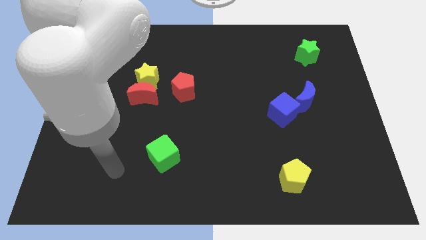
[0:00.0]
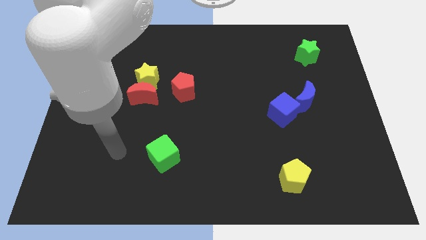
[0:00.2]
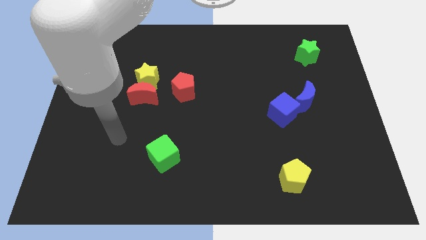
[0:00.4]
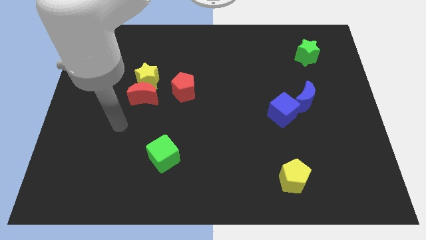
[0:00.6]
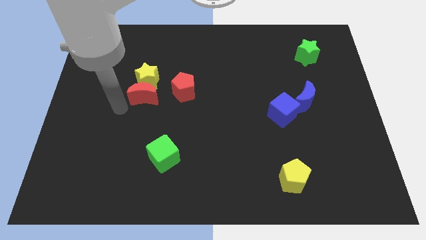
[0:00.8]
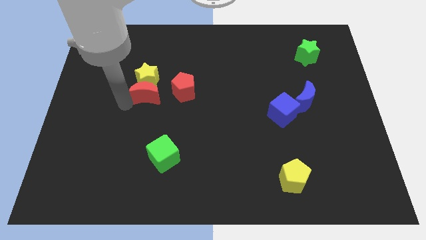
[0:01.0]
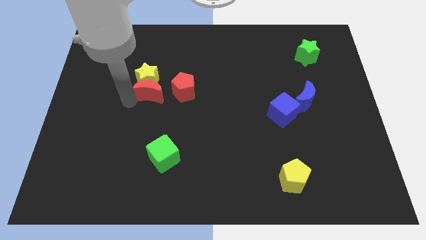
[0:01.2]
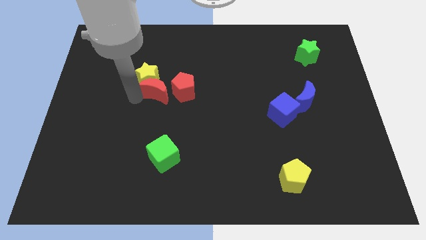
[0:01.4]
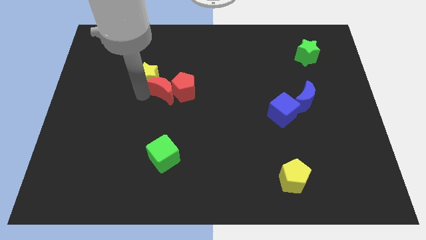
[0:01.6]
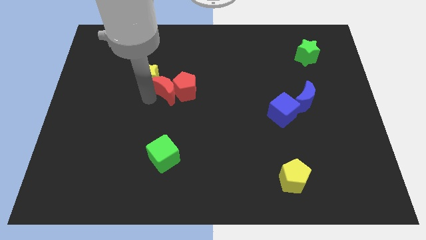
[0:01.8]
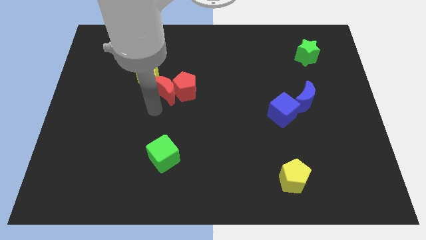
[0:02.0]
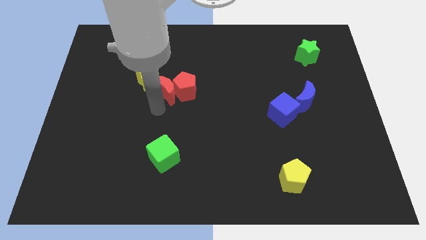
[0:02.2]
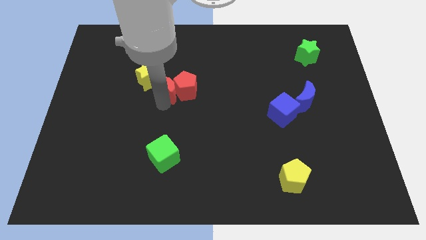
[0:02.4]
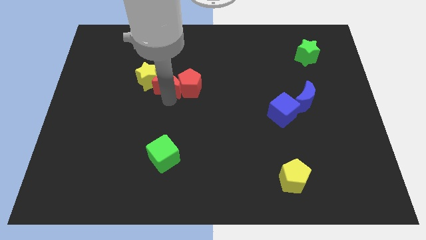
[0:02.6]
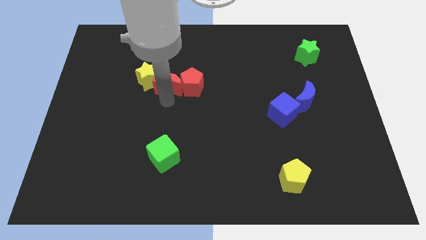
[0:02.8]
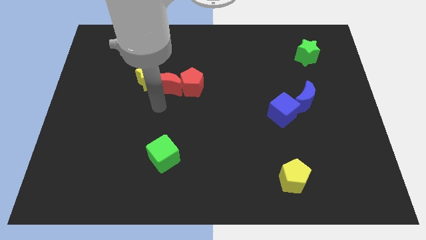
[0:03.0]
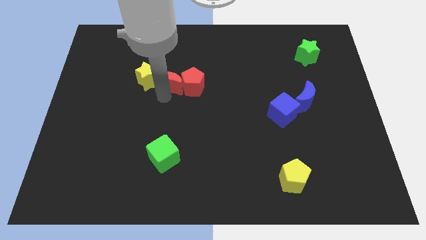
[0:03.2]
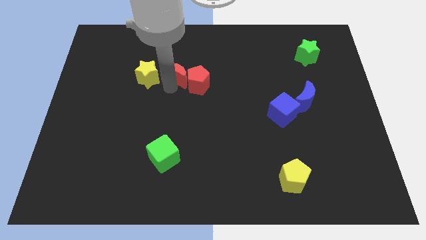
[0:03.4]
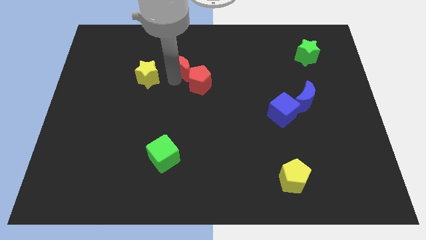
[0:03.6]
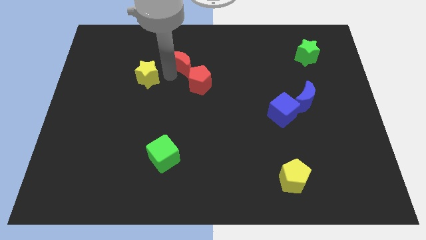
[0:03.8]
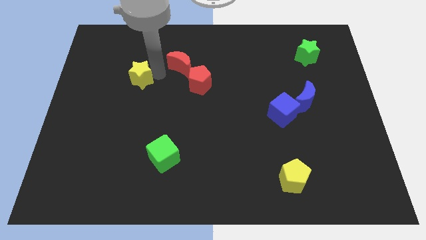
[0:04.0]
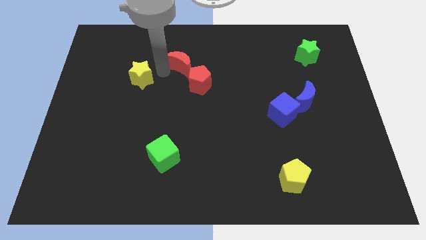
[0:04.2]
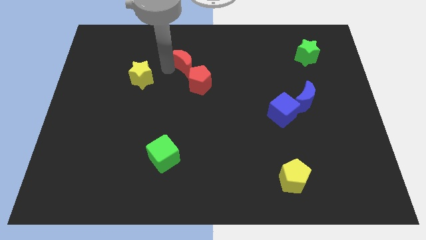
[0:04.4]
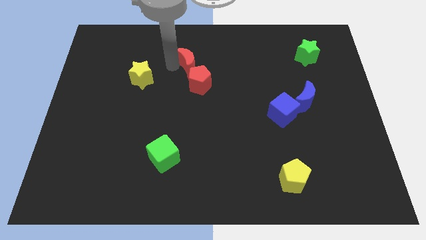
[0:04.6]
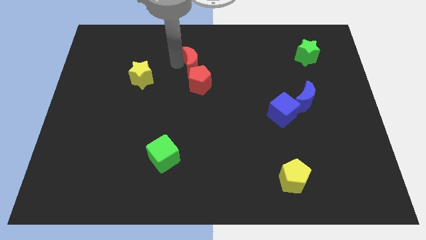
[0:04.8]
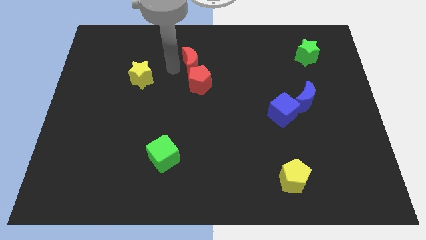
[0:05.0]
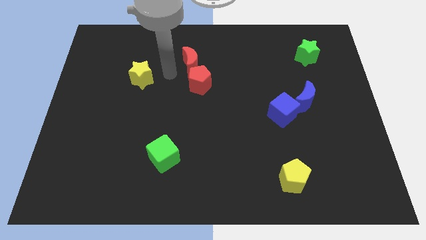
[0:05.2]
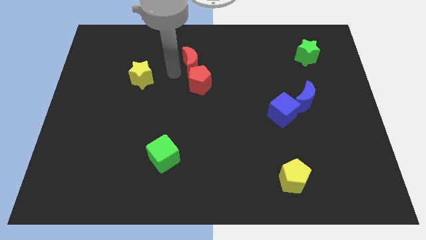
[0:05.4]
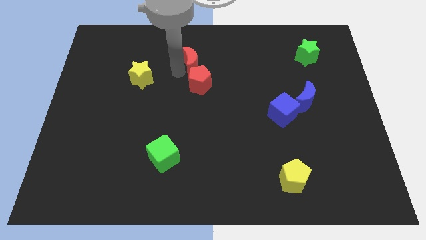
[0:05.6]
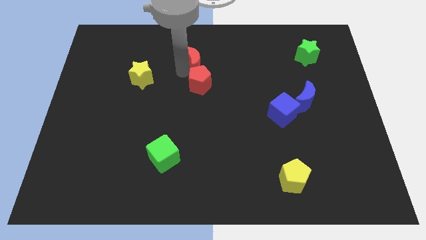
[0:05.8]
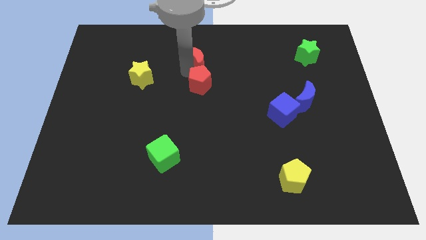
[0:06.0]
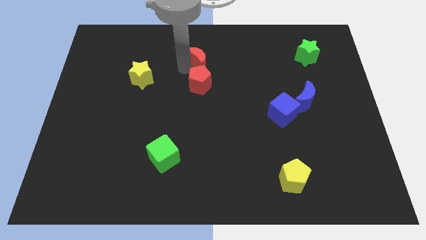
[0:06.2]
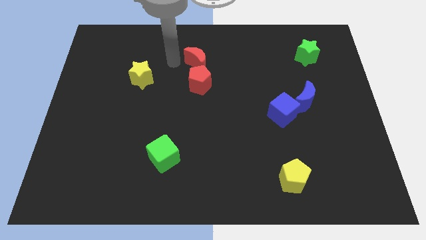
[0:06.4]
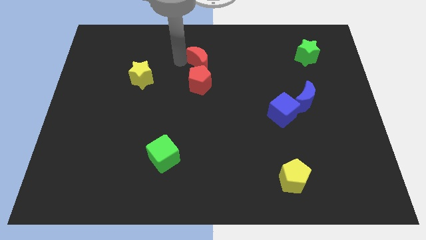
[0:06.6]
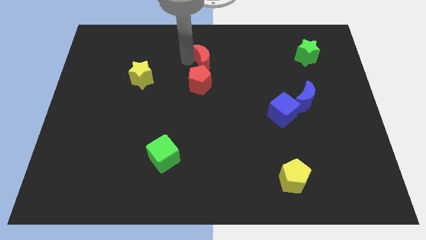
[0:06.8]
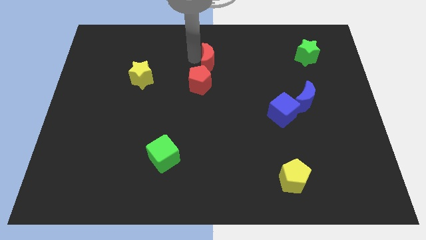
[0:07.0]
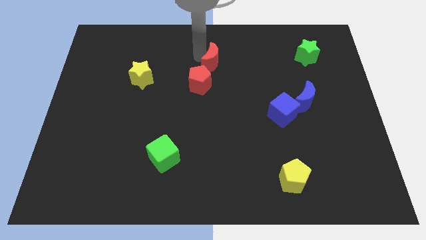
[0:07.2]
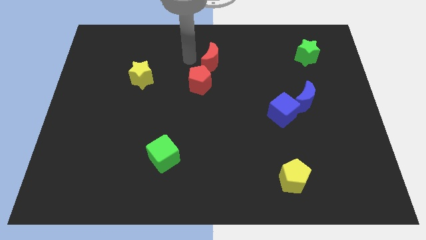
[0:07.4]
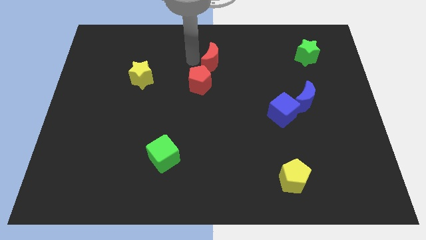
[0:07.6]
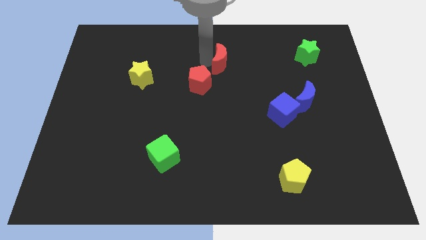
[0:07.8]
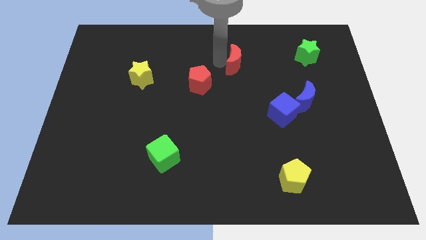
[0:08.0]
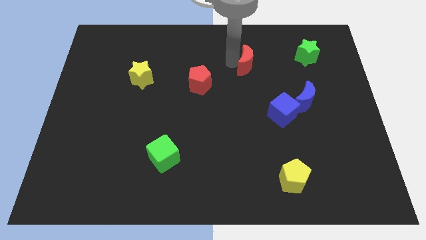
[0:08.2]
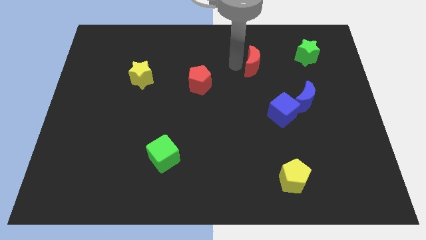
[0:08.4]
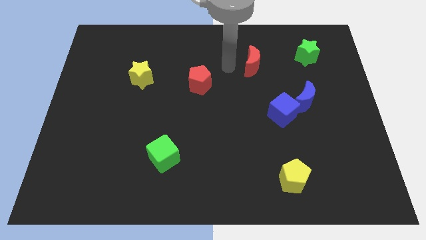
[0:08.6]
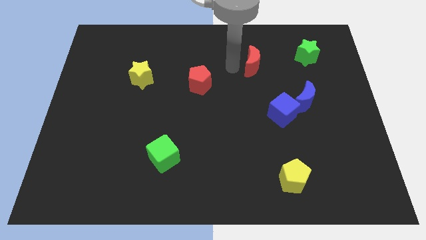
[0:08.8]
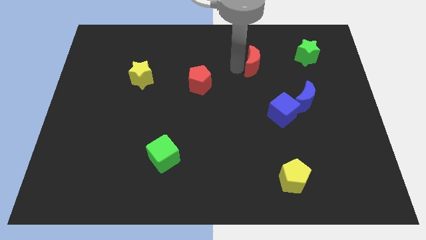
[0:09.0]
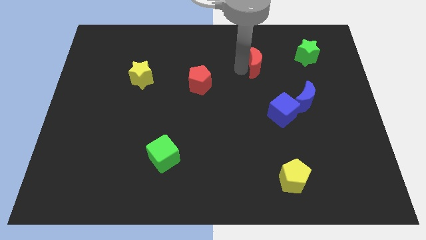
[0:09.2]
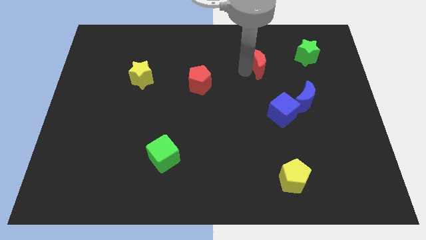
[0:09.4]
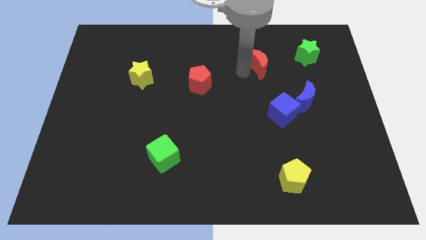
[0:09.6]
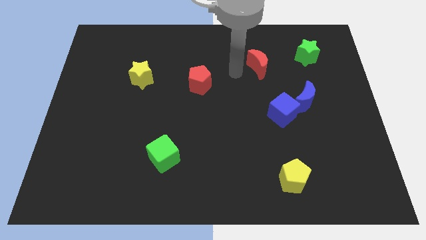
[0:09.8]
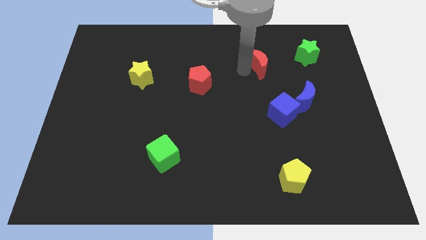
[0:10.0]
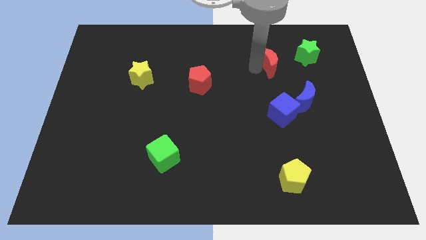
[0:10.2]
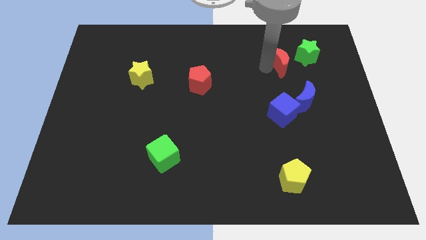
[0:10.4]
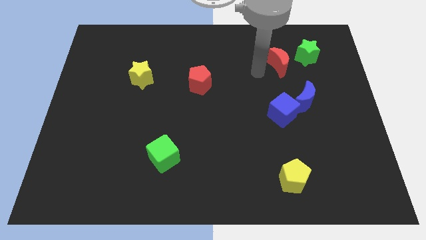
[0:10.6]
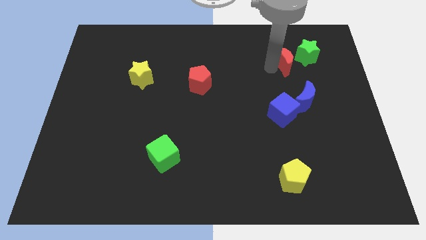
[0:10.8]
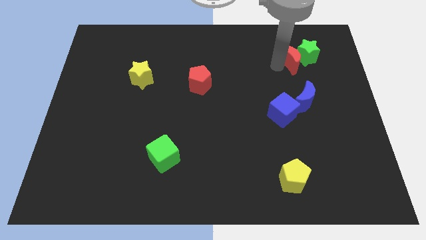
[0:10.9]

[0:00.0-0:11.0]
put the red moon close to the green star

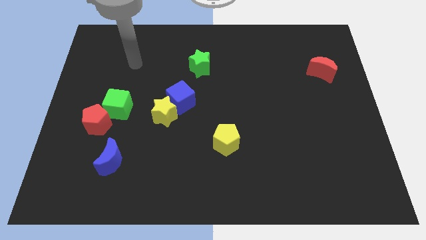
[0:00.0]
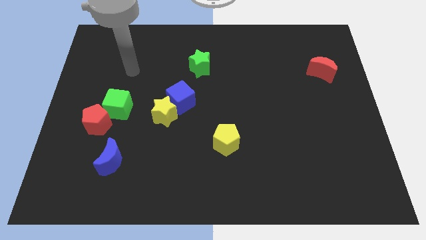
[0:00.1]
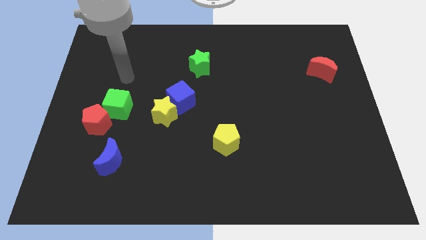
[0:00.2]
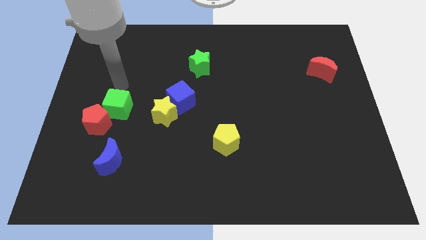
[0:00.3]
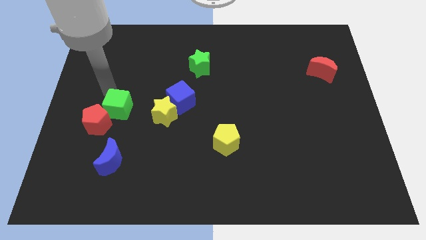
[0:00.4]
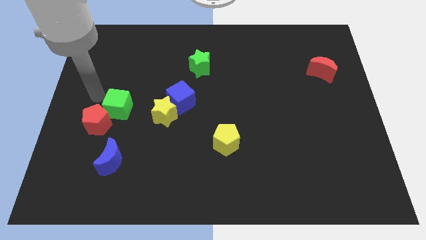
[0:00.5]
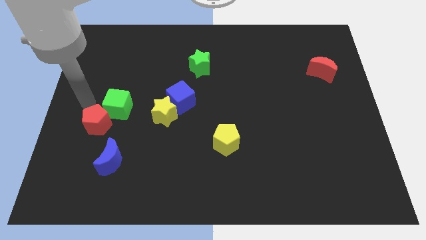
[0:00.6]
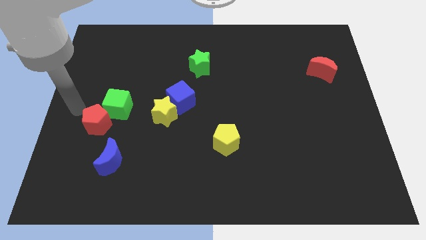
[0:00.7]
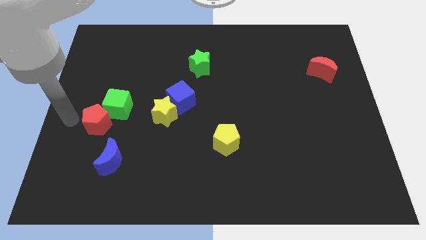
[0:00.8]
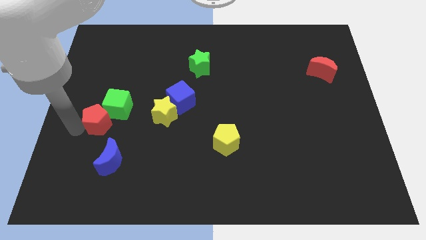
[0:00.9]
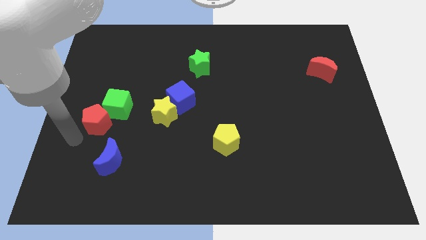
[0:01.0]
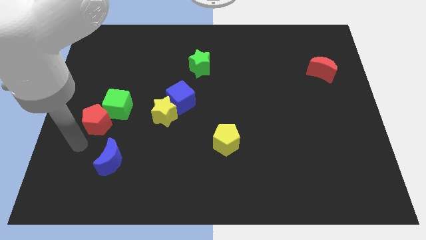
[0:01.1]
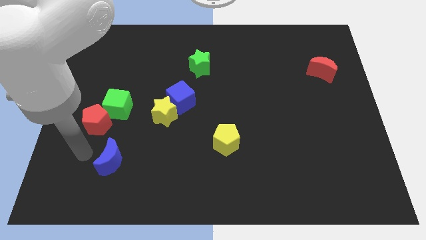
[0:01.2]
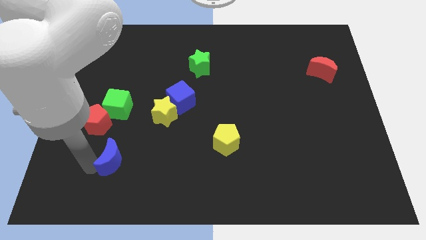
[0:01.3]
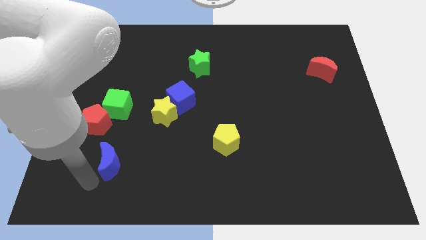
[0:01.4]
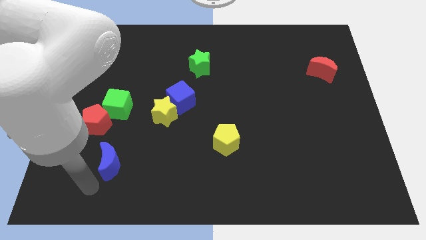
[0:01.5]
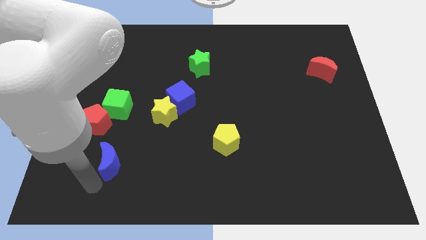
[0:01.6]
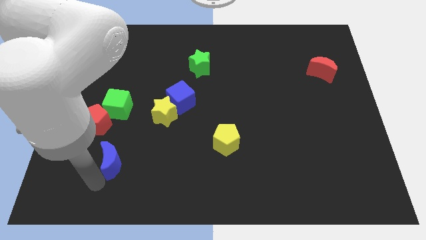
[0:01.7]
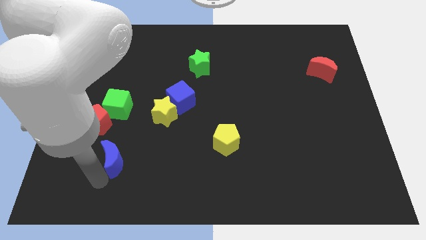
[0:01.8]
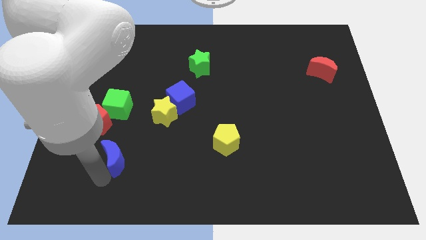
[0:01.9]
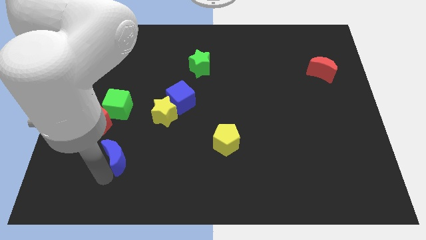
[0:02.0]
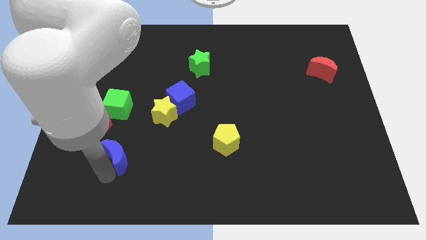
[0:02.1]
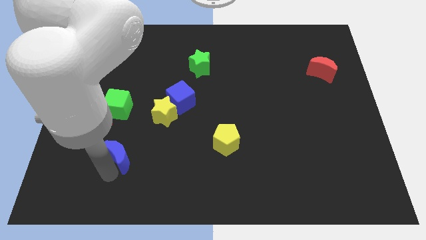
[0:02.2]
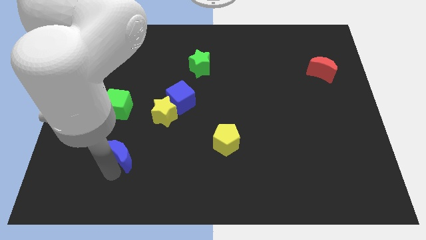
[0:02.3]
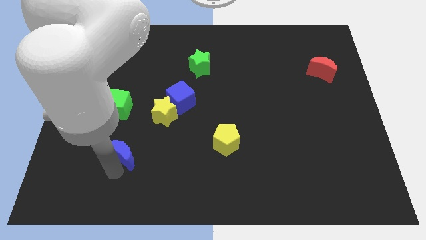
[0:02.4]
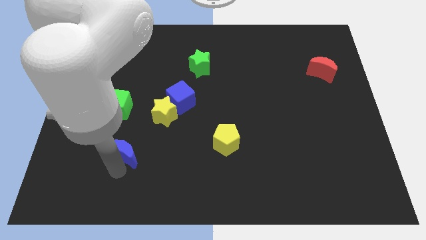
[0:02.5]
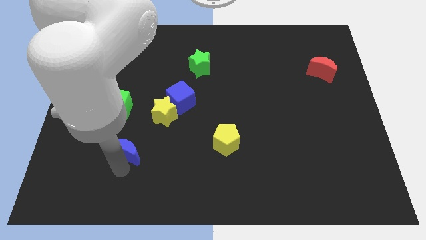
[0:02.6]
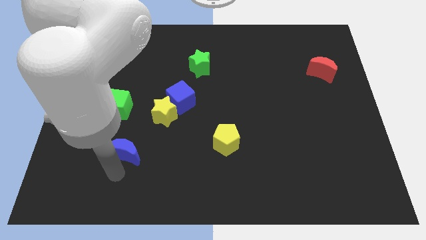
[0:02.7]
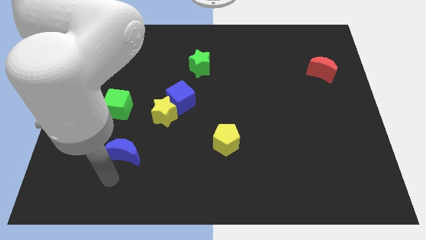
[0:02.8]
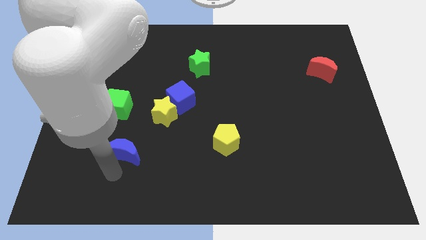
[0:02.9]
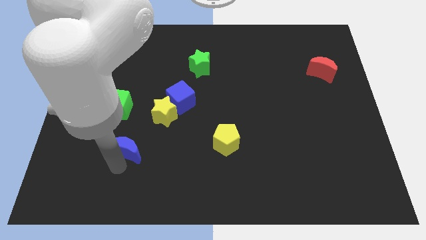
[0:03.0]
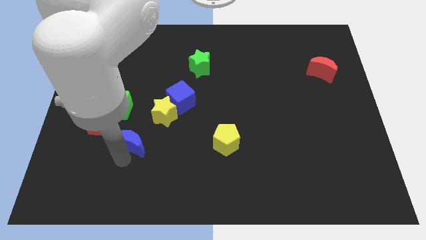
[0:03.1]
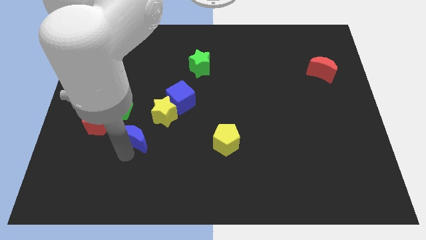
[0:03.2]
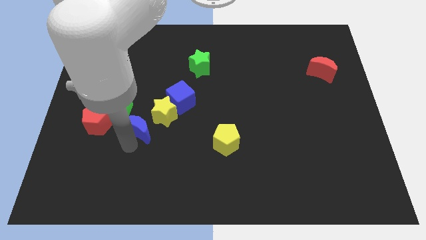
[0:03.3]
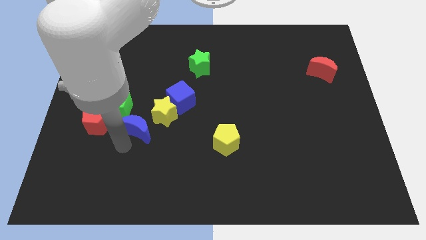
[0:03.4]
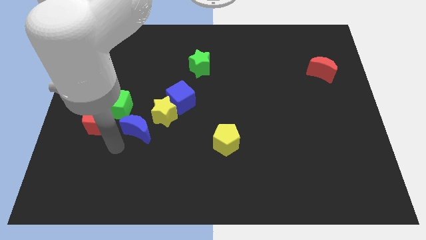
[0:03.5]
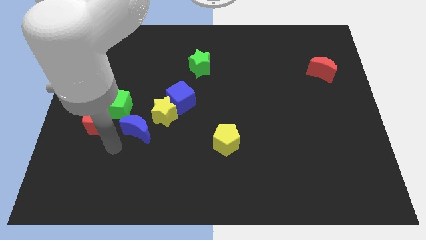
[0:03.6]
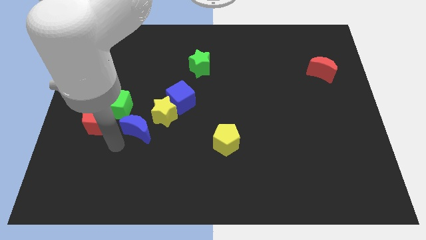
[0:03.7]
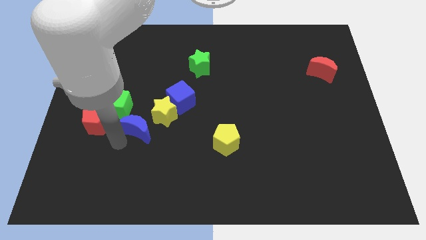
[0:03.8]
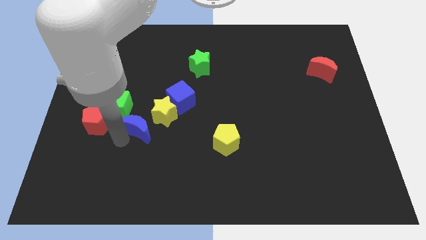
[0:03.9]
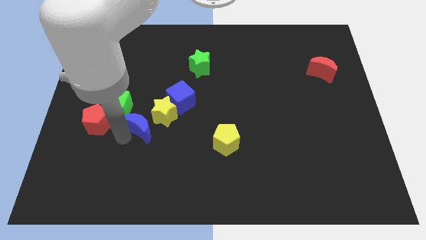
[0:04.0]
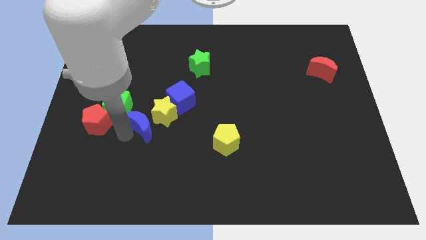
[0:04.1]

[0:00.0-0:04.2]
slide the blue moon close to the yellow star
